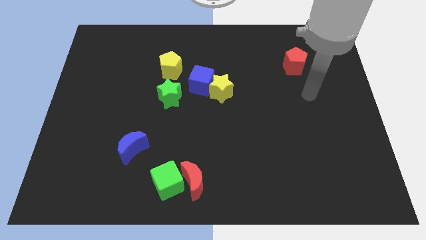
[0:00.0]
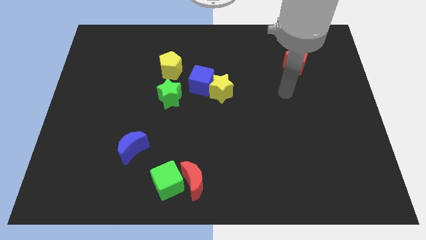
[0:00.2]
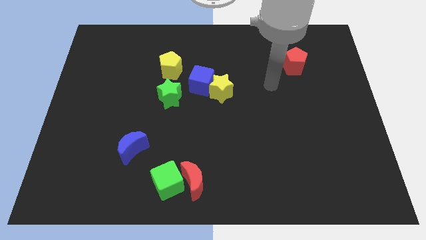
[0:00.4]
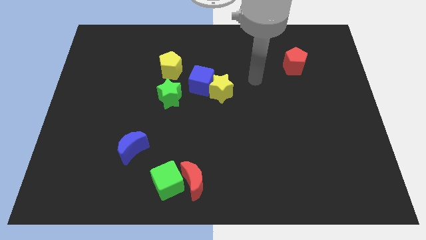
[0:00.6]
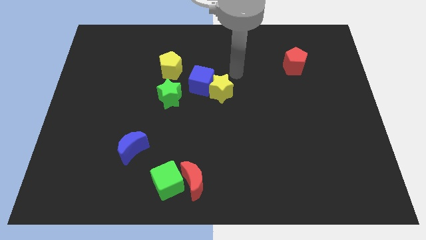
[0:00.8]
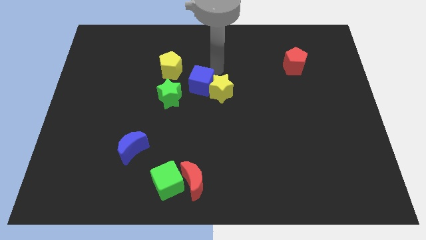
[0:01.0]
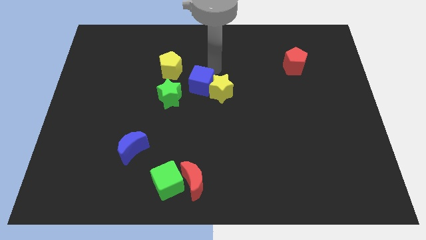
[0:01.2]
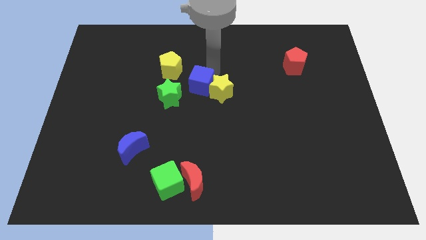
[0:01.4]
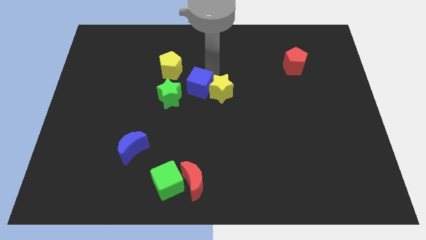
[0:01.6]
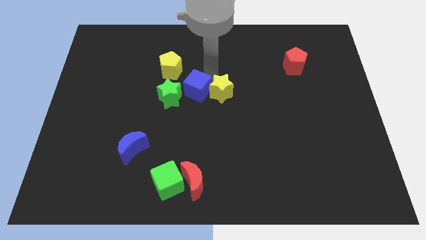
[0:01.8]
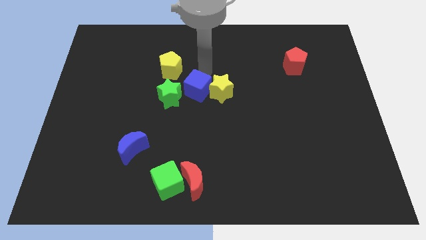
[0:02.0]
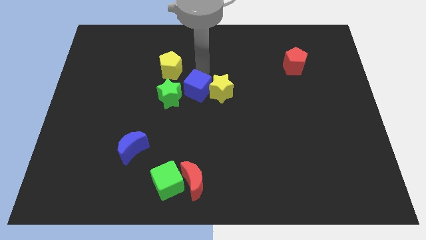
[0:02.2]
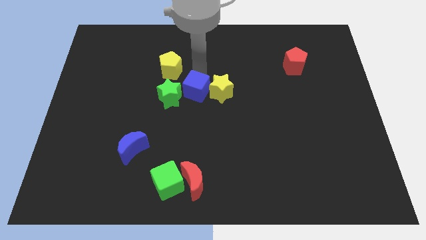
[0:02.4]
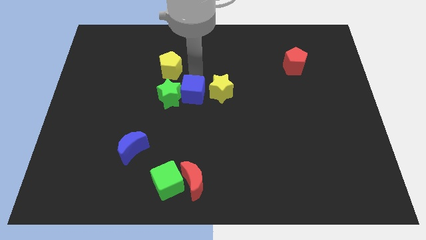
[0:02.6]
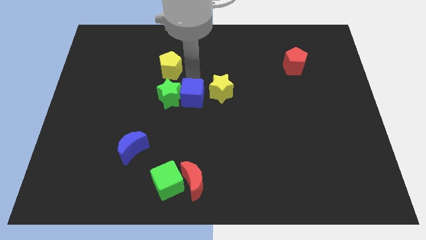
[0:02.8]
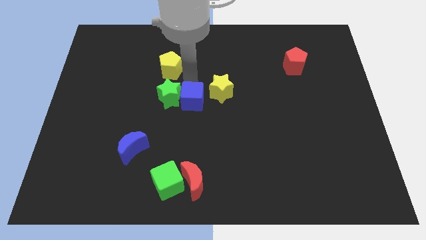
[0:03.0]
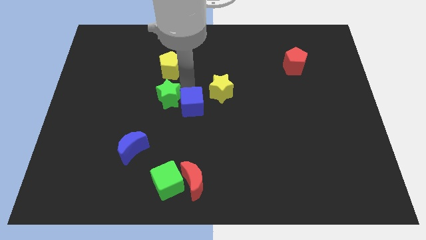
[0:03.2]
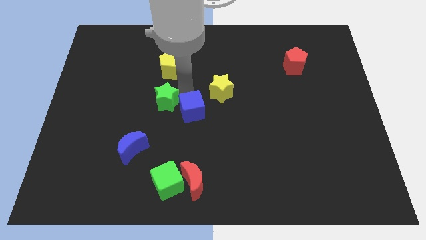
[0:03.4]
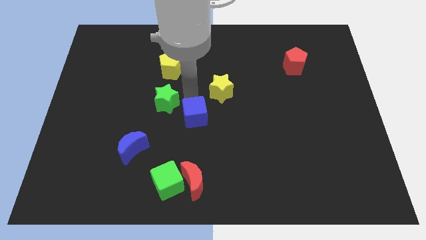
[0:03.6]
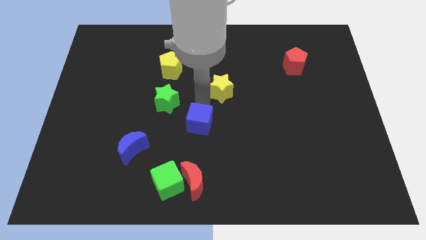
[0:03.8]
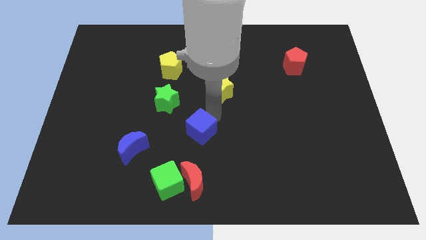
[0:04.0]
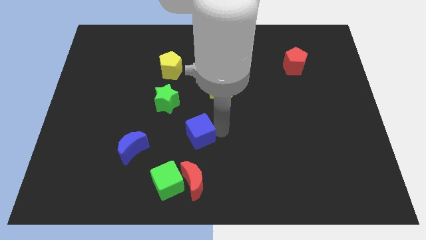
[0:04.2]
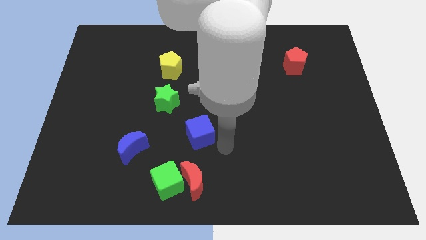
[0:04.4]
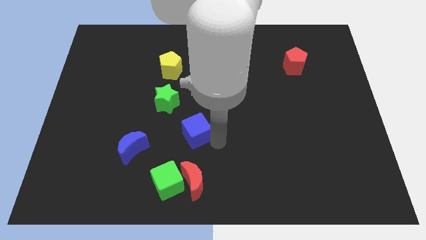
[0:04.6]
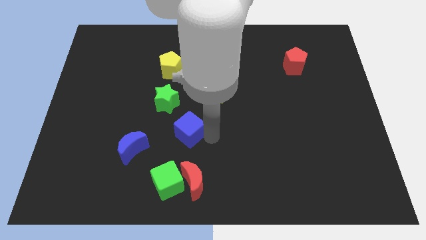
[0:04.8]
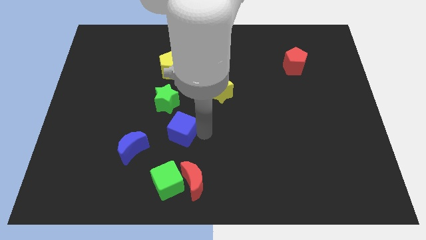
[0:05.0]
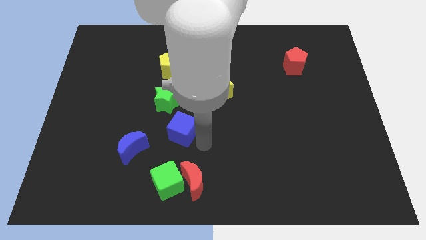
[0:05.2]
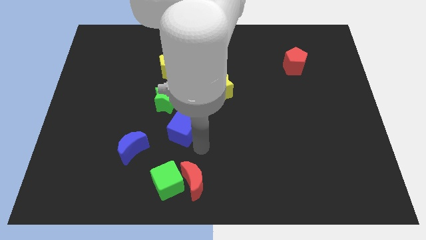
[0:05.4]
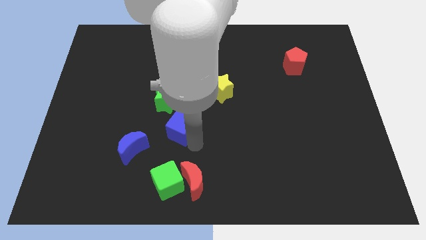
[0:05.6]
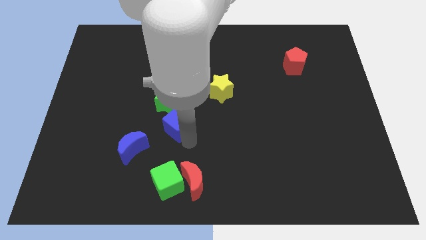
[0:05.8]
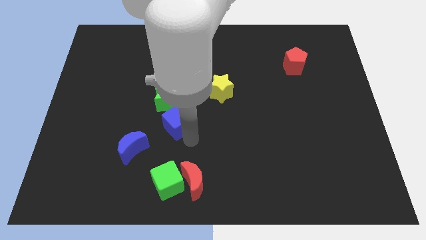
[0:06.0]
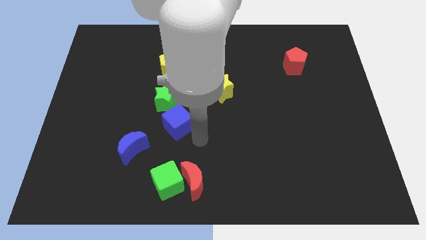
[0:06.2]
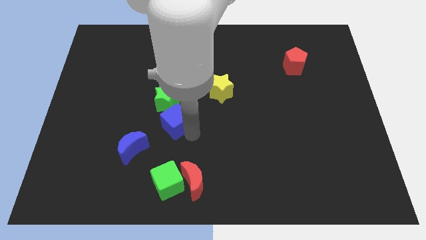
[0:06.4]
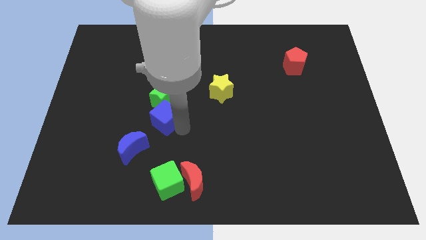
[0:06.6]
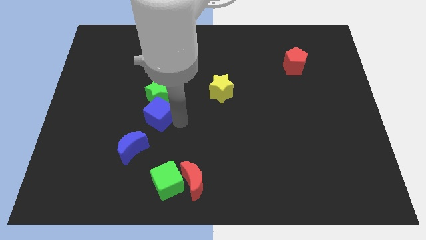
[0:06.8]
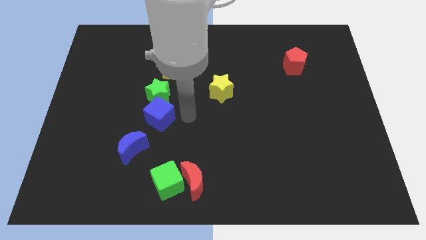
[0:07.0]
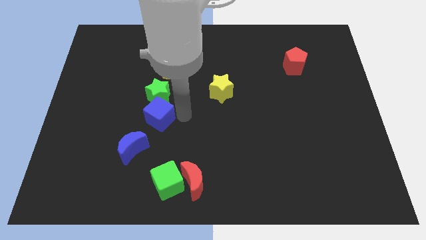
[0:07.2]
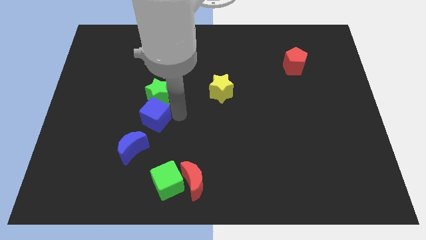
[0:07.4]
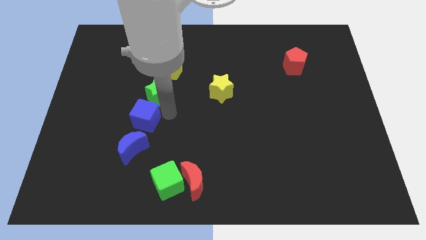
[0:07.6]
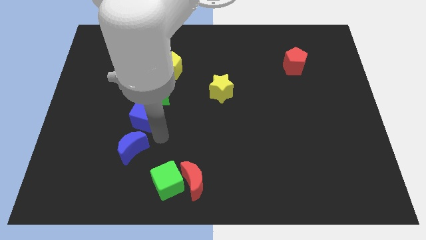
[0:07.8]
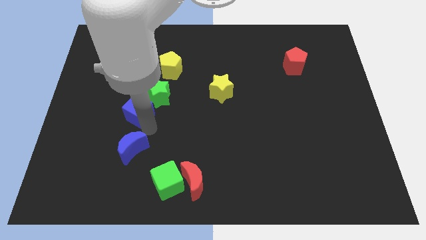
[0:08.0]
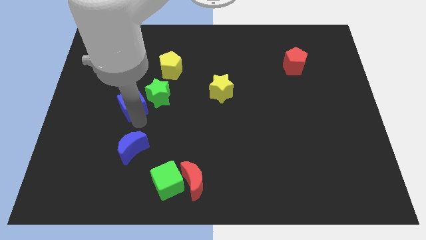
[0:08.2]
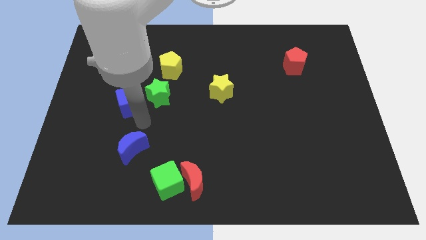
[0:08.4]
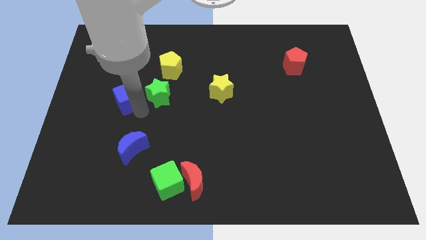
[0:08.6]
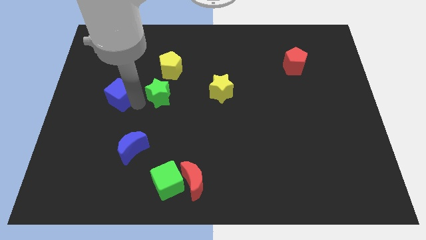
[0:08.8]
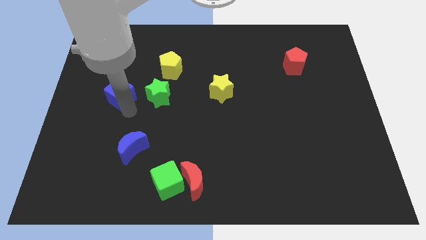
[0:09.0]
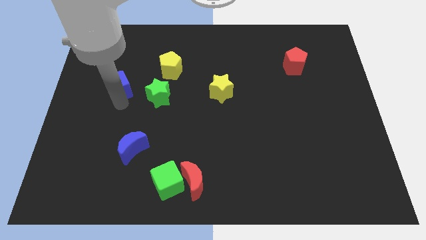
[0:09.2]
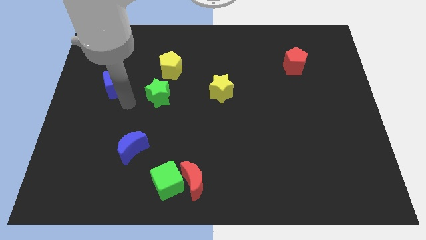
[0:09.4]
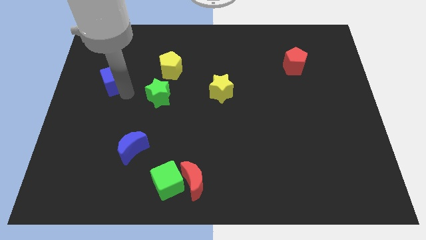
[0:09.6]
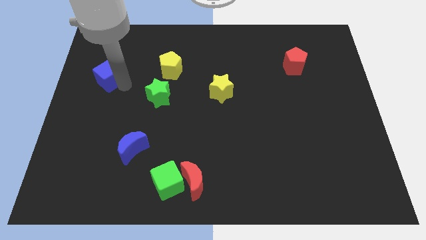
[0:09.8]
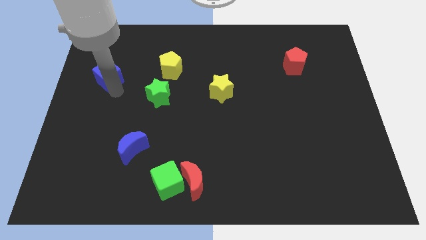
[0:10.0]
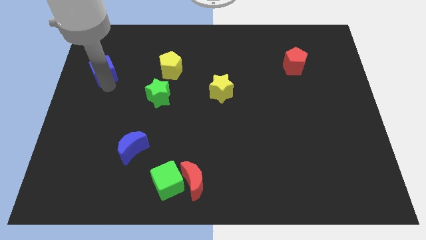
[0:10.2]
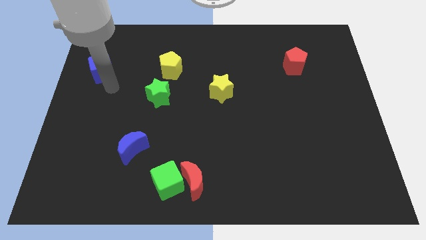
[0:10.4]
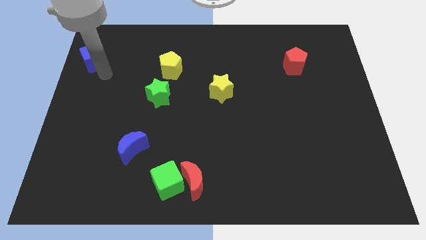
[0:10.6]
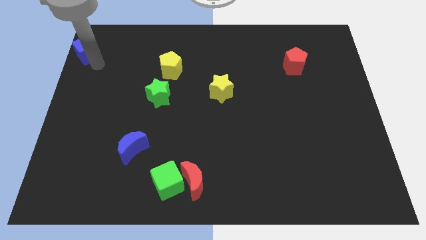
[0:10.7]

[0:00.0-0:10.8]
put the blue cube to the top left of the board

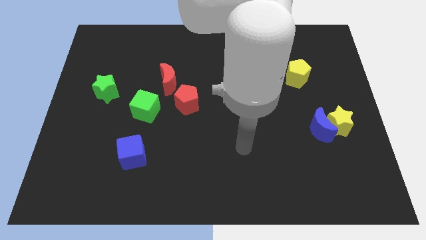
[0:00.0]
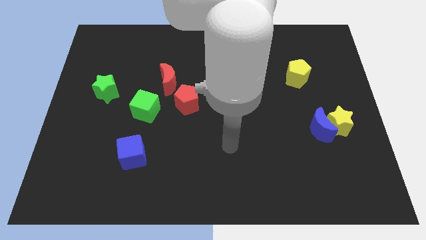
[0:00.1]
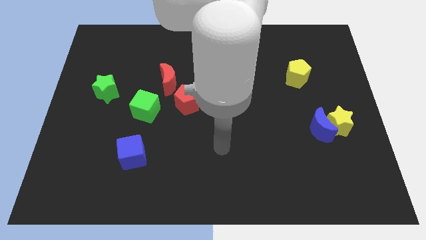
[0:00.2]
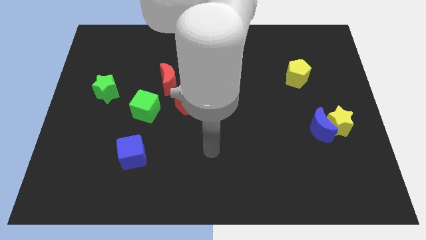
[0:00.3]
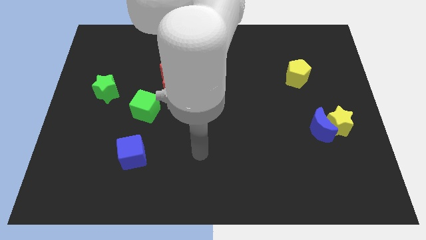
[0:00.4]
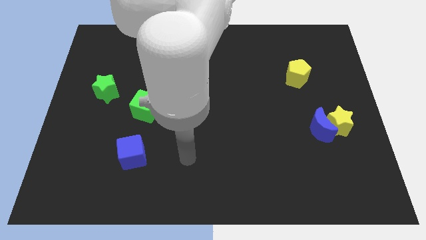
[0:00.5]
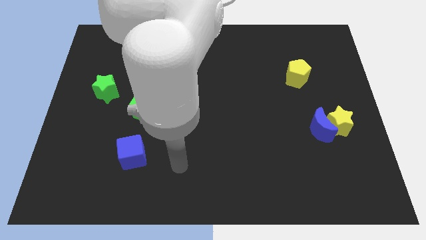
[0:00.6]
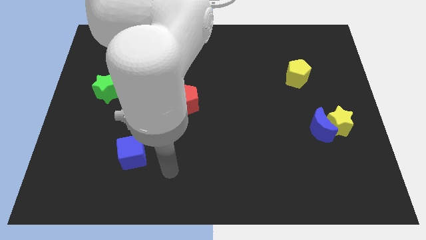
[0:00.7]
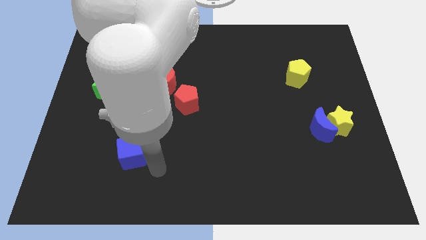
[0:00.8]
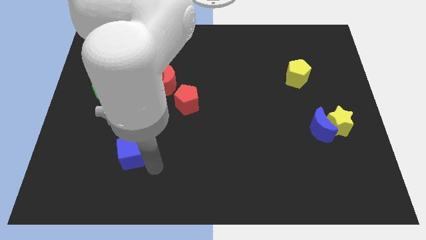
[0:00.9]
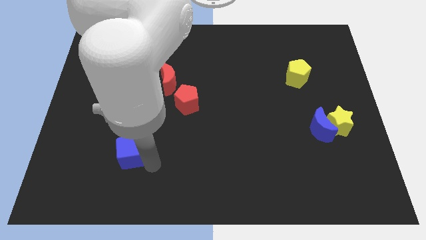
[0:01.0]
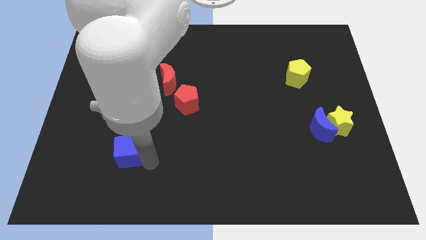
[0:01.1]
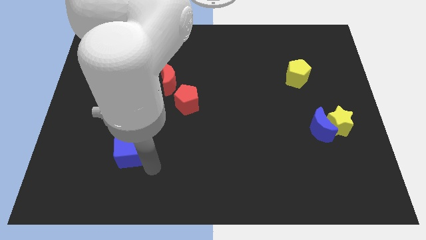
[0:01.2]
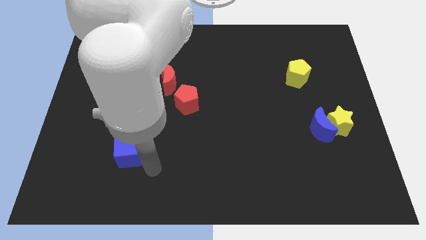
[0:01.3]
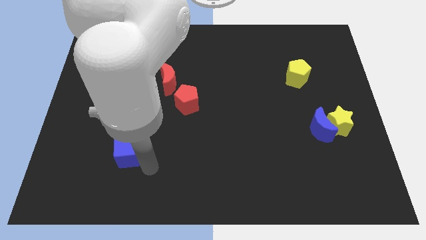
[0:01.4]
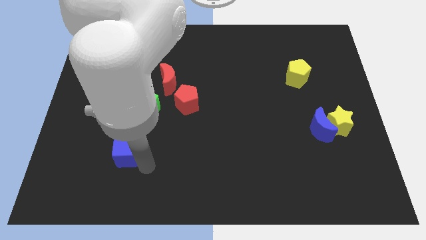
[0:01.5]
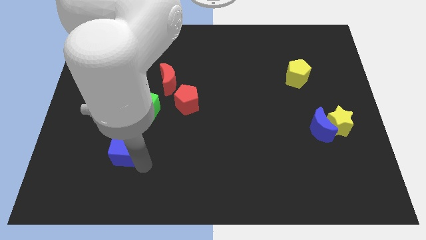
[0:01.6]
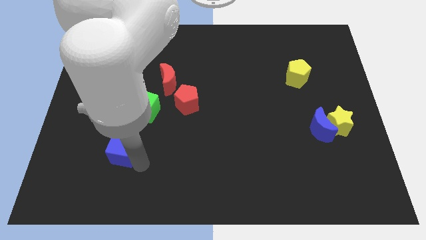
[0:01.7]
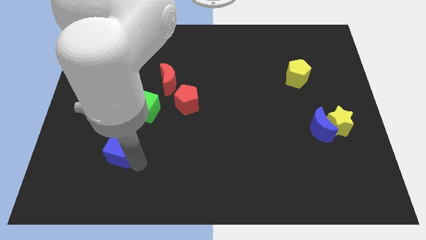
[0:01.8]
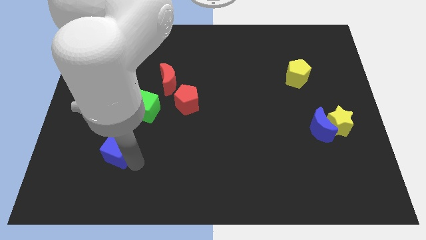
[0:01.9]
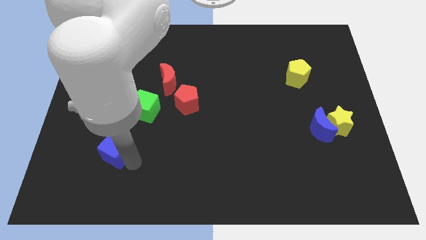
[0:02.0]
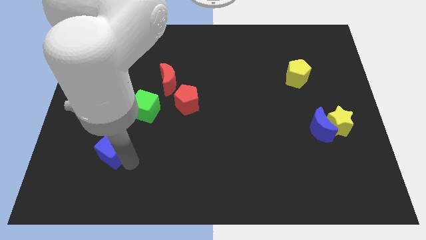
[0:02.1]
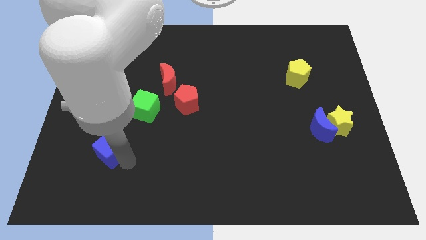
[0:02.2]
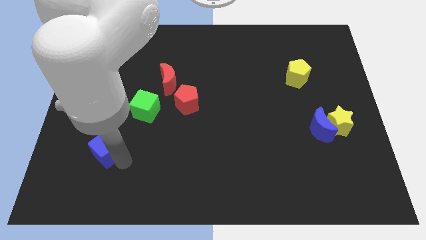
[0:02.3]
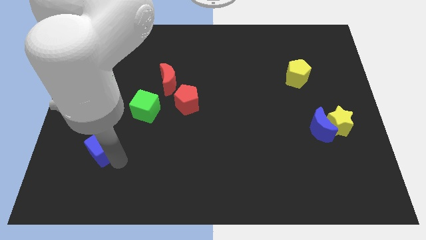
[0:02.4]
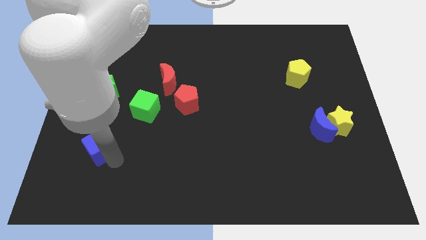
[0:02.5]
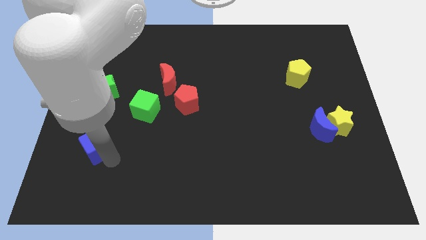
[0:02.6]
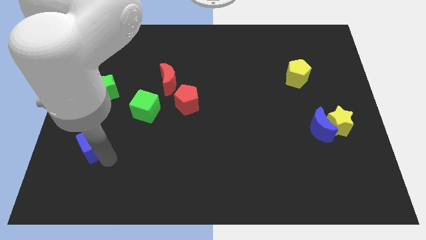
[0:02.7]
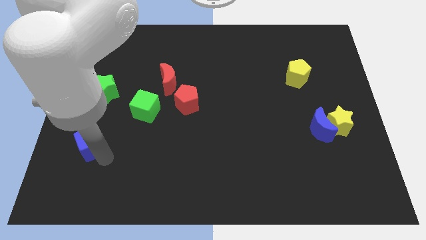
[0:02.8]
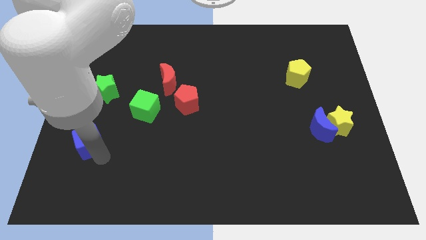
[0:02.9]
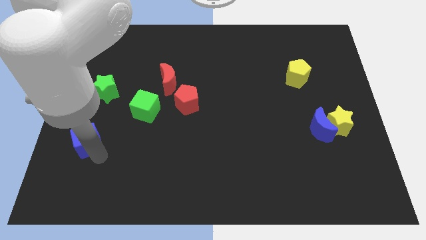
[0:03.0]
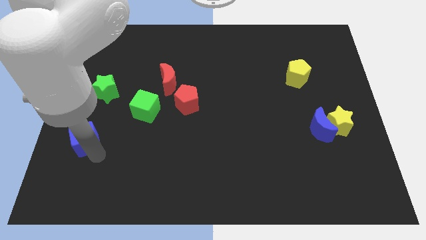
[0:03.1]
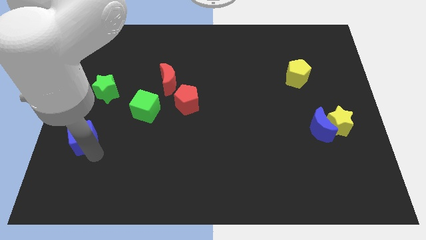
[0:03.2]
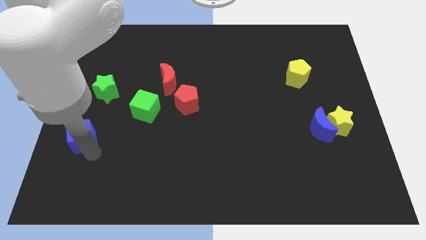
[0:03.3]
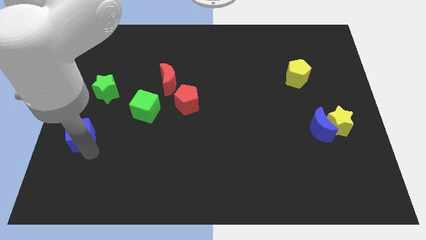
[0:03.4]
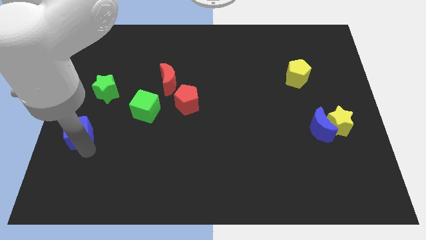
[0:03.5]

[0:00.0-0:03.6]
slide the blue cube to the left side of the board
